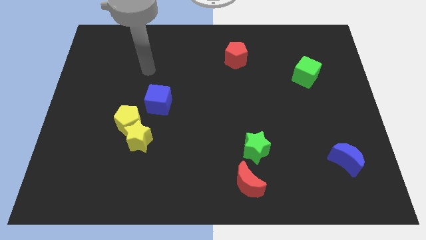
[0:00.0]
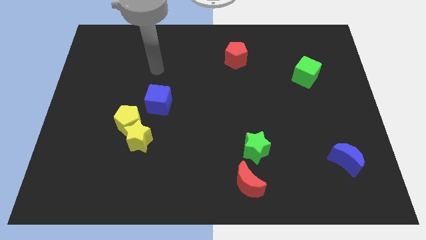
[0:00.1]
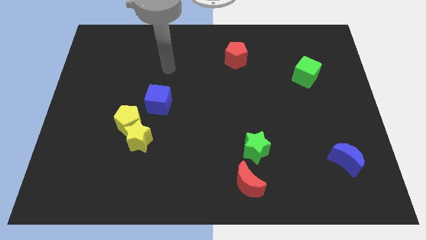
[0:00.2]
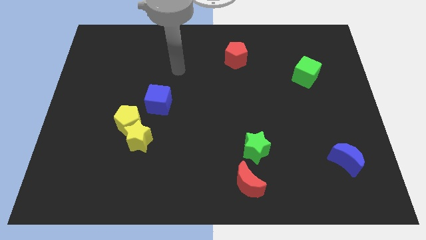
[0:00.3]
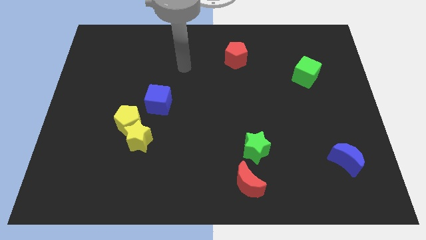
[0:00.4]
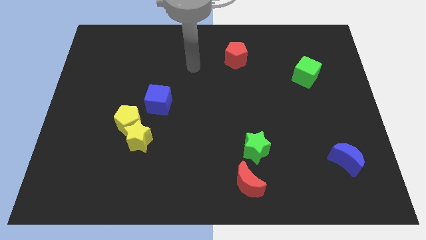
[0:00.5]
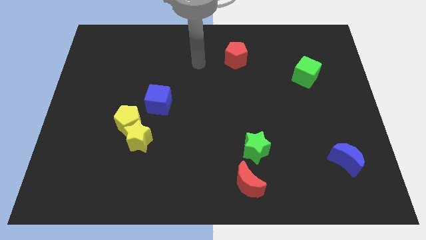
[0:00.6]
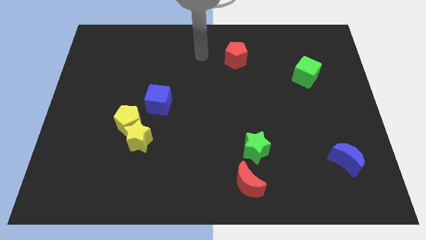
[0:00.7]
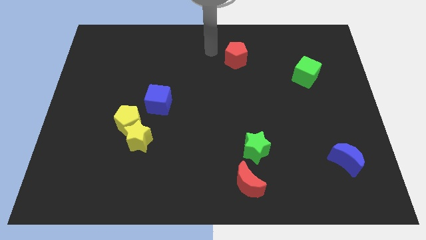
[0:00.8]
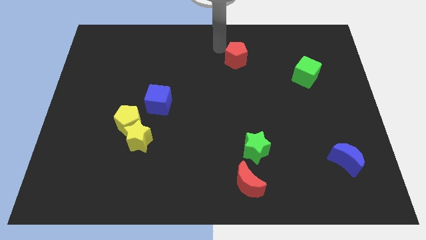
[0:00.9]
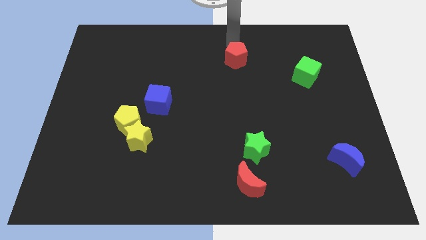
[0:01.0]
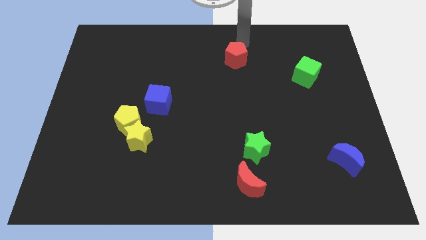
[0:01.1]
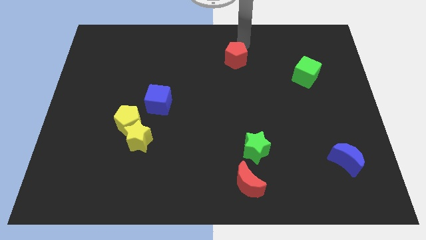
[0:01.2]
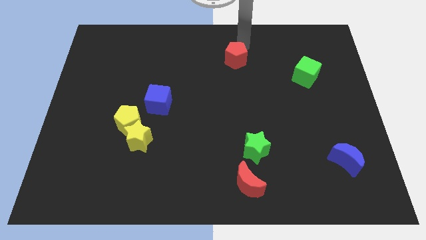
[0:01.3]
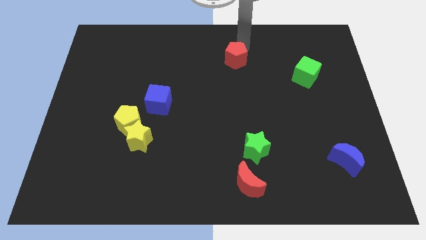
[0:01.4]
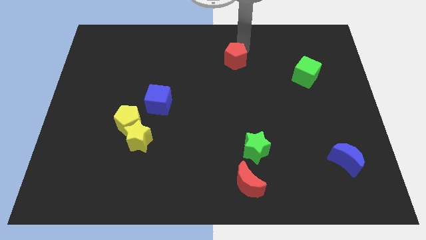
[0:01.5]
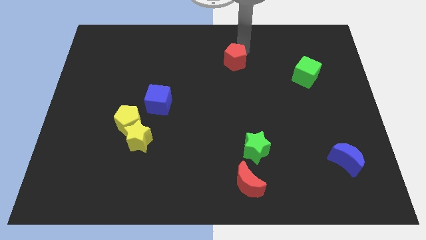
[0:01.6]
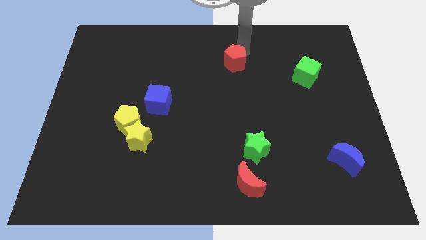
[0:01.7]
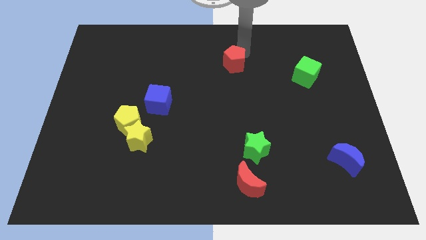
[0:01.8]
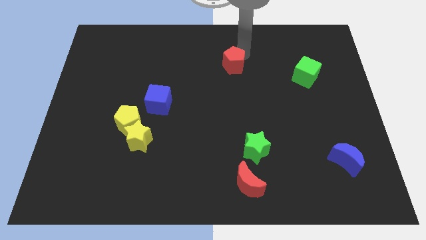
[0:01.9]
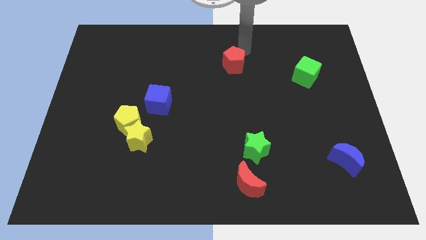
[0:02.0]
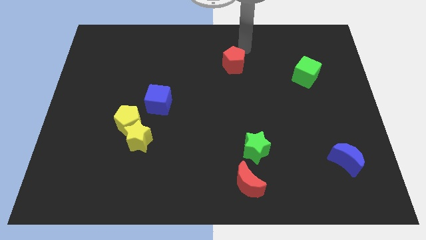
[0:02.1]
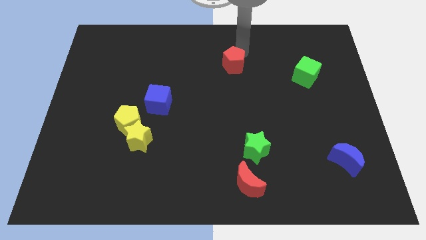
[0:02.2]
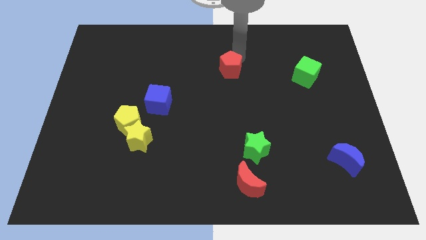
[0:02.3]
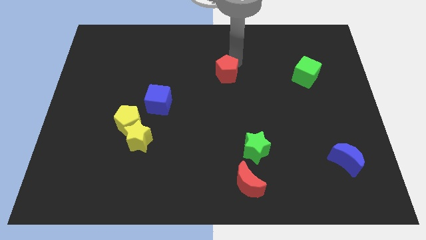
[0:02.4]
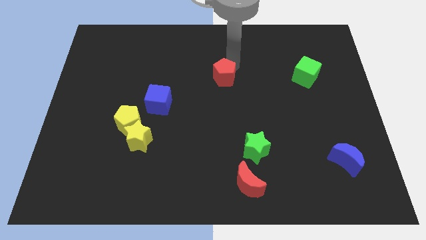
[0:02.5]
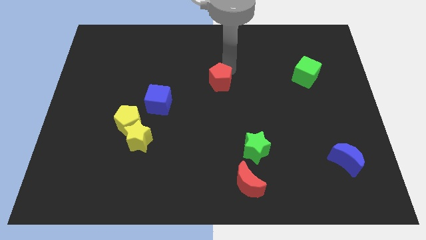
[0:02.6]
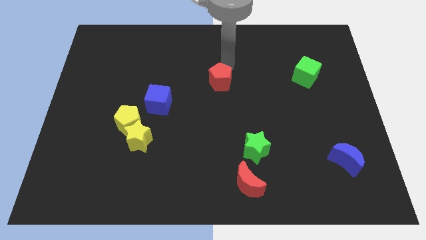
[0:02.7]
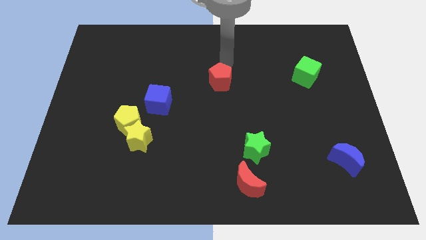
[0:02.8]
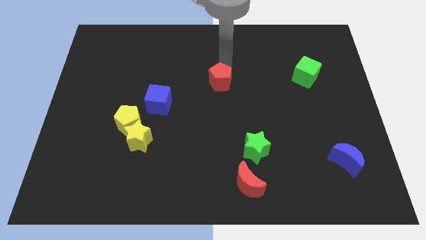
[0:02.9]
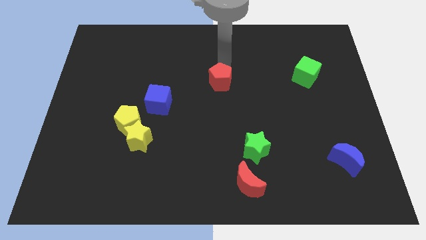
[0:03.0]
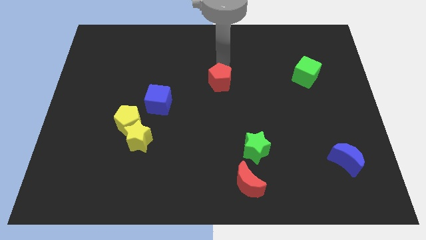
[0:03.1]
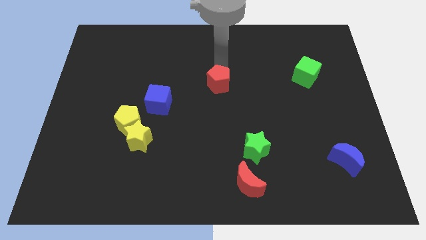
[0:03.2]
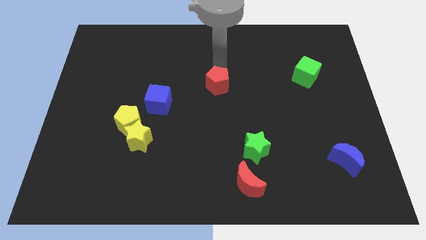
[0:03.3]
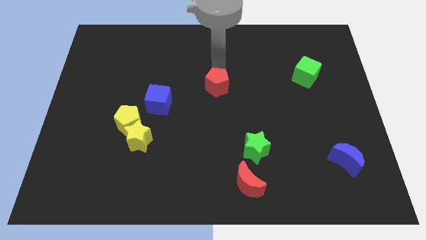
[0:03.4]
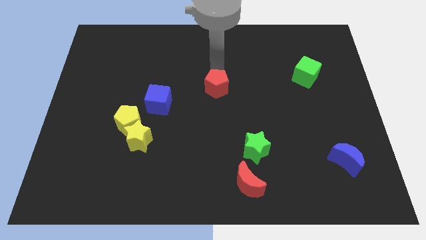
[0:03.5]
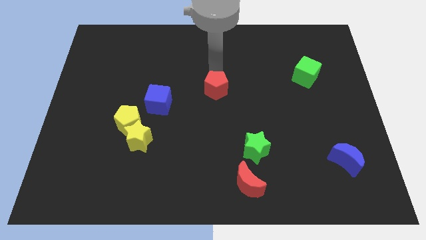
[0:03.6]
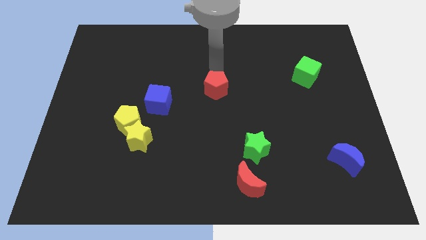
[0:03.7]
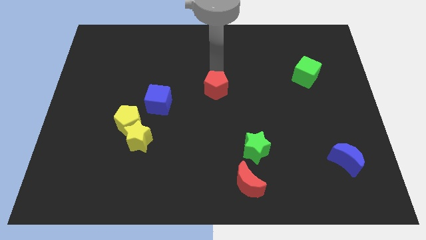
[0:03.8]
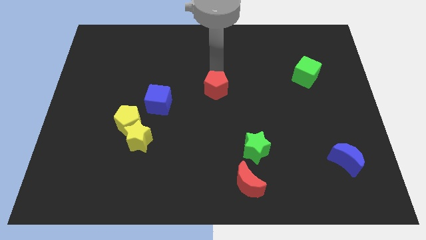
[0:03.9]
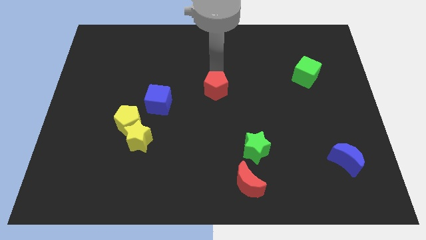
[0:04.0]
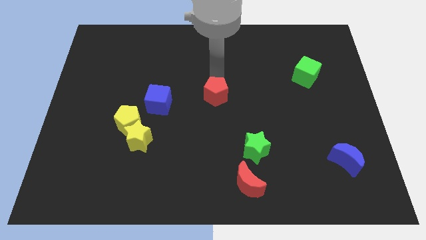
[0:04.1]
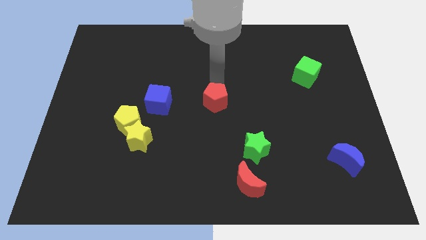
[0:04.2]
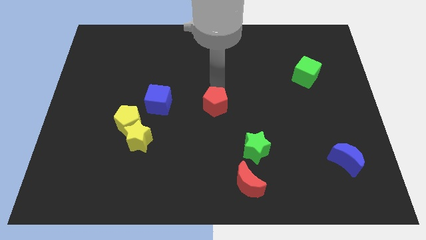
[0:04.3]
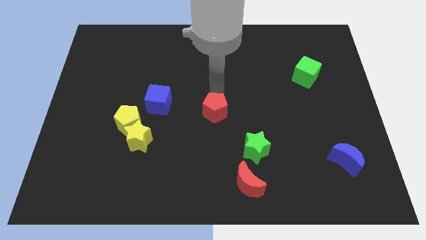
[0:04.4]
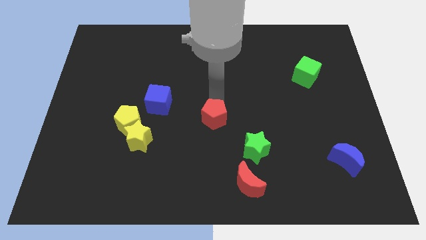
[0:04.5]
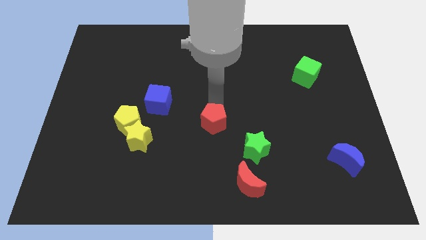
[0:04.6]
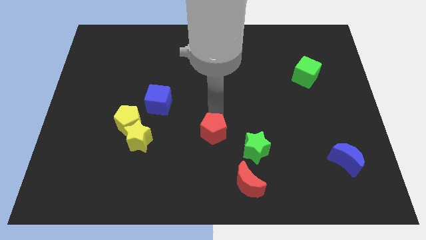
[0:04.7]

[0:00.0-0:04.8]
move the red pentagon to the left side of the green star

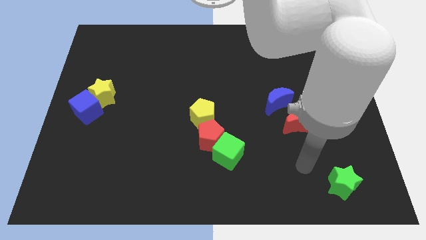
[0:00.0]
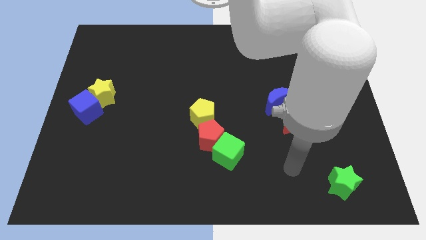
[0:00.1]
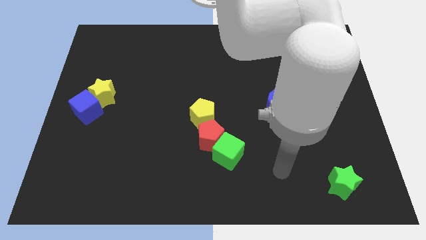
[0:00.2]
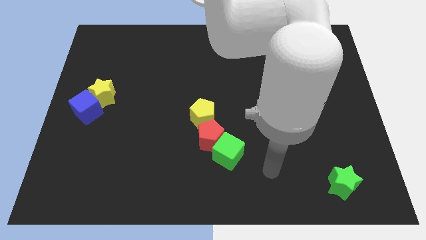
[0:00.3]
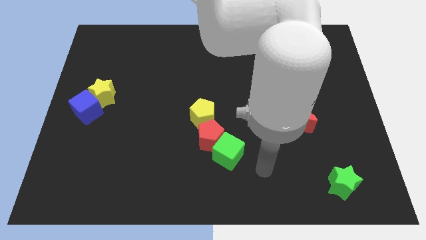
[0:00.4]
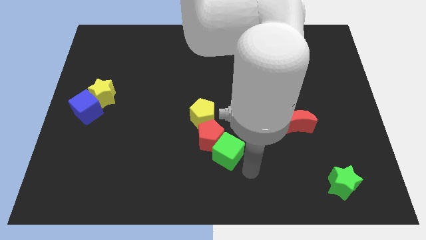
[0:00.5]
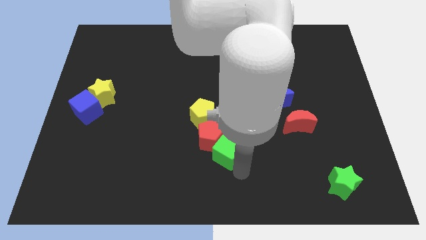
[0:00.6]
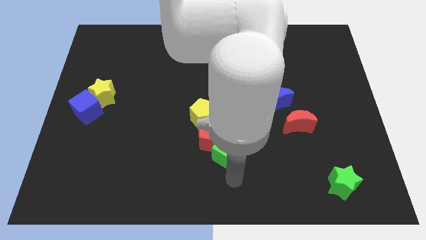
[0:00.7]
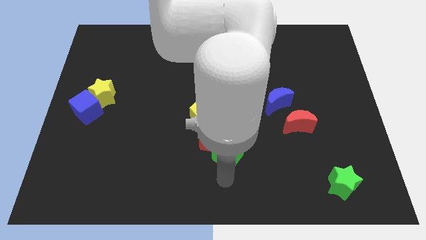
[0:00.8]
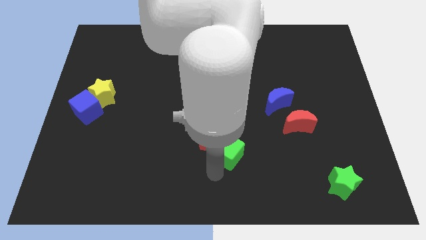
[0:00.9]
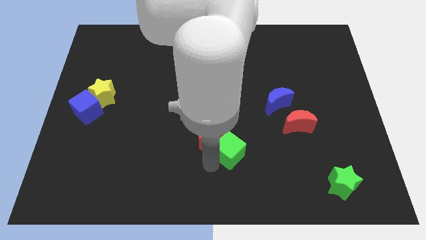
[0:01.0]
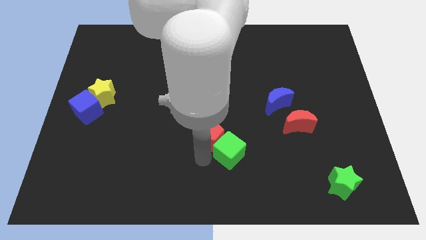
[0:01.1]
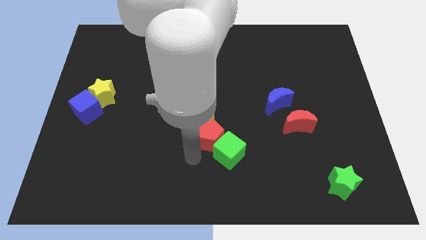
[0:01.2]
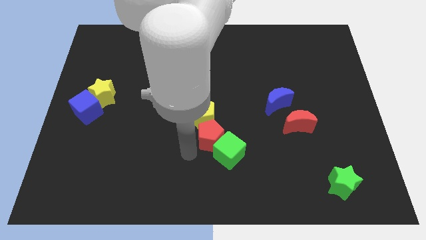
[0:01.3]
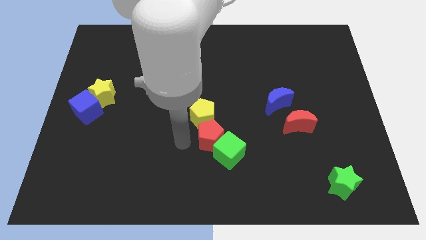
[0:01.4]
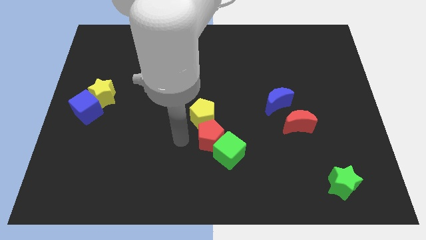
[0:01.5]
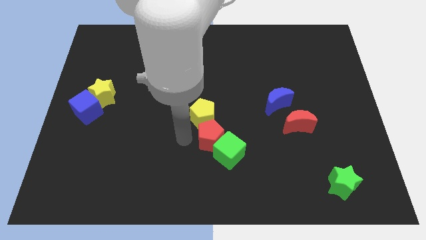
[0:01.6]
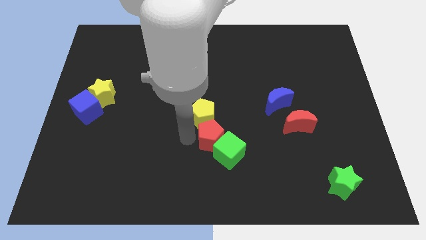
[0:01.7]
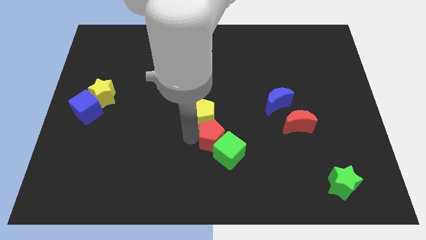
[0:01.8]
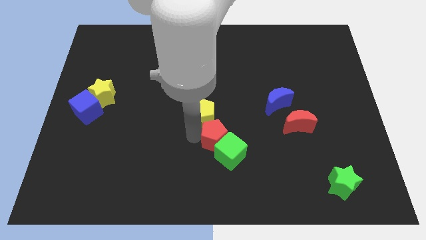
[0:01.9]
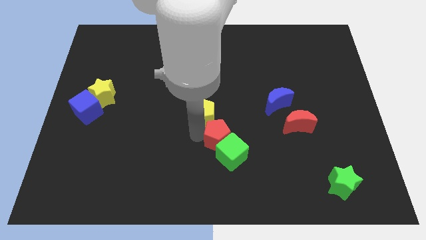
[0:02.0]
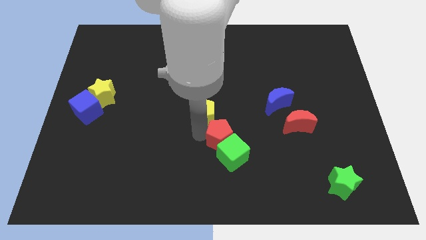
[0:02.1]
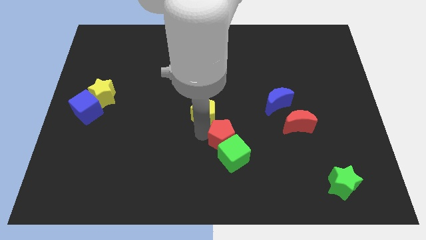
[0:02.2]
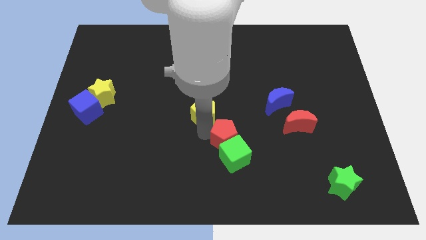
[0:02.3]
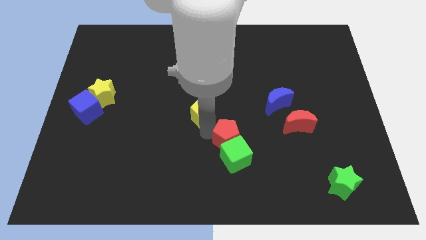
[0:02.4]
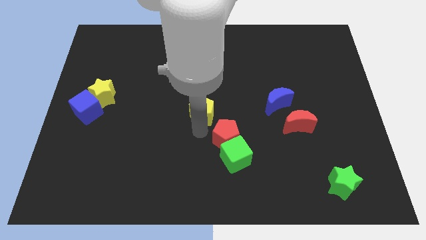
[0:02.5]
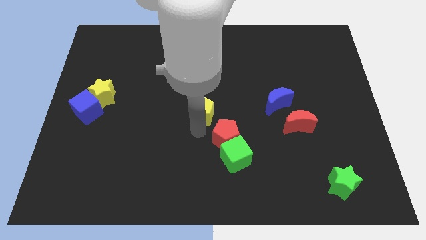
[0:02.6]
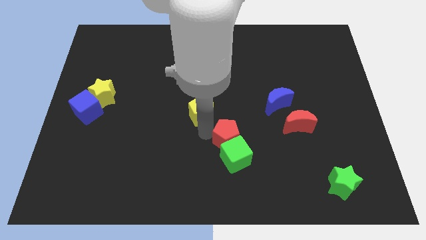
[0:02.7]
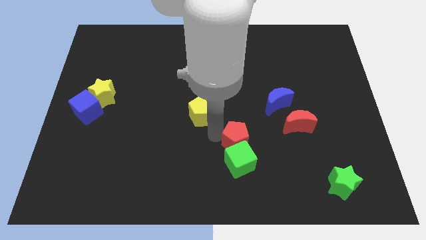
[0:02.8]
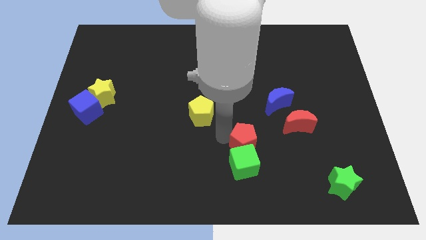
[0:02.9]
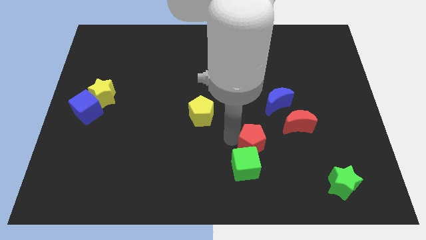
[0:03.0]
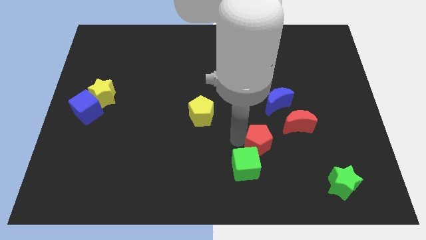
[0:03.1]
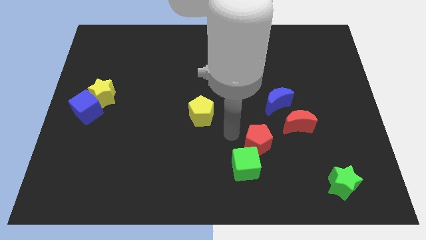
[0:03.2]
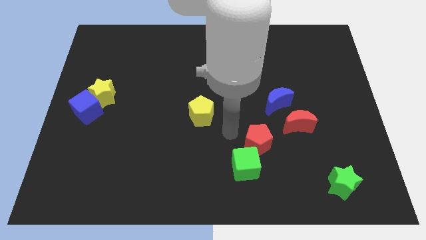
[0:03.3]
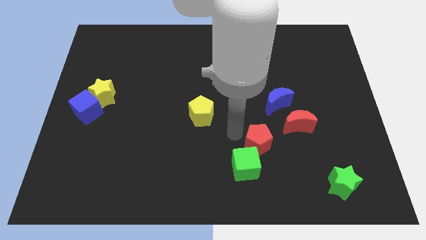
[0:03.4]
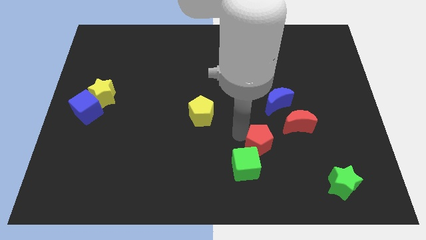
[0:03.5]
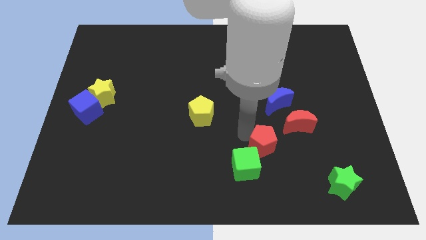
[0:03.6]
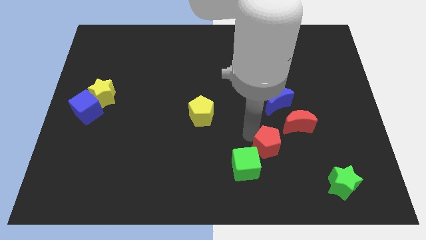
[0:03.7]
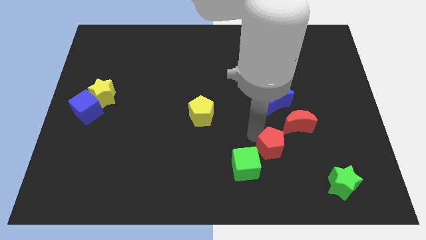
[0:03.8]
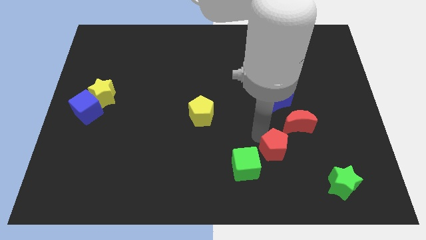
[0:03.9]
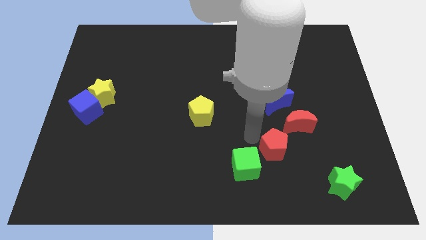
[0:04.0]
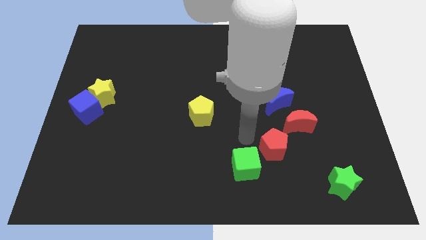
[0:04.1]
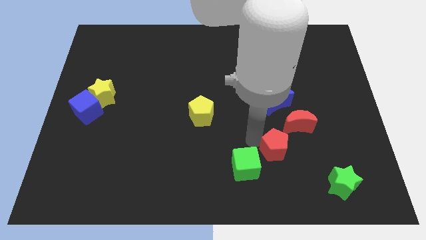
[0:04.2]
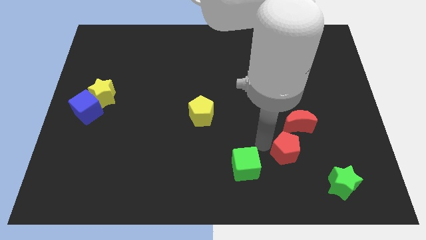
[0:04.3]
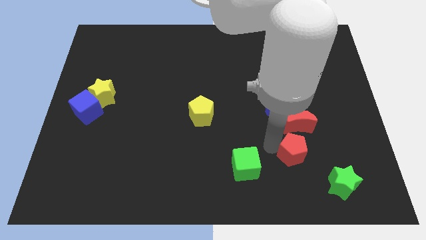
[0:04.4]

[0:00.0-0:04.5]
push the red pentagon to the top left of the green star
